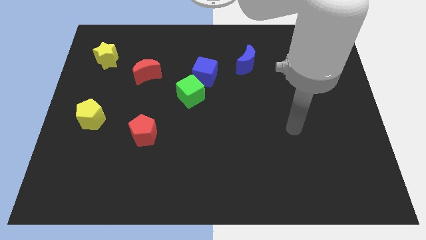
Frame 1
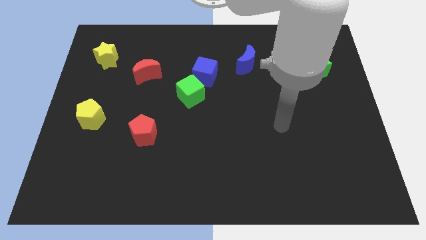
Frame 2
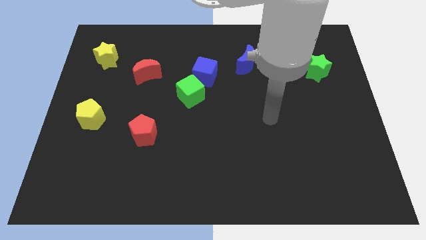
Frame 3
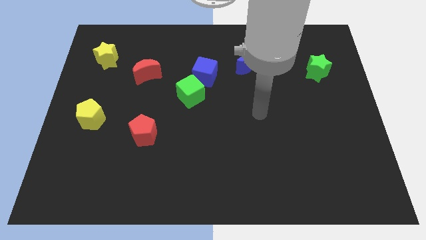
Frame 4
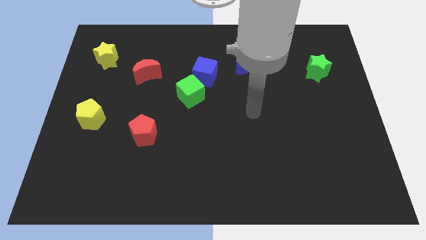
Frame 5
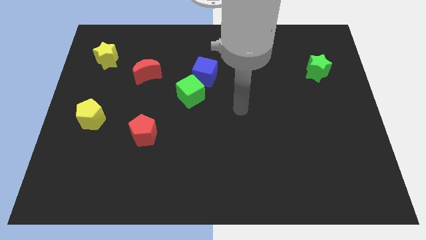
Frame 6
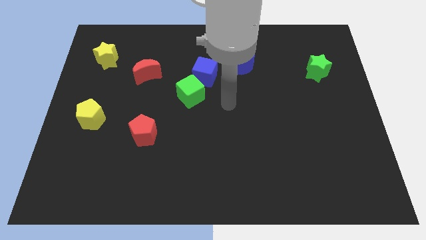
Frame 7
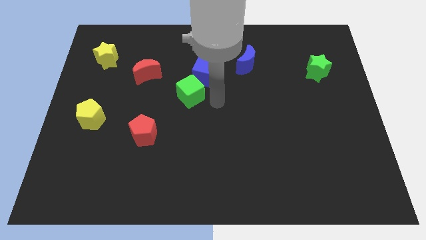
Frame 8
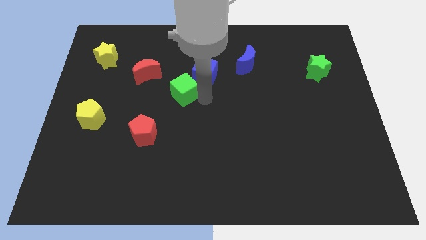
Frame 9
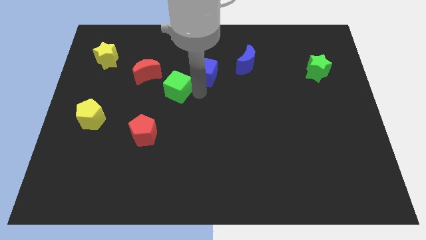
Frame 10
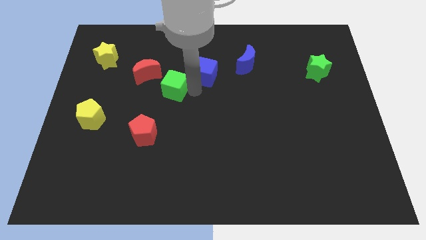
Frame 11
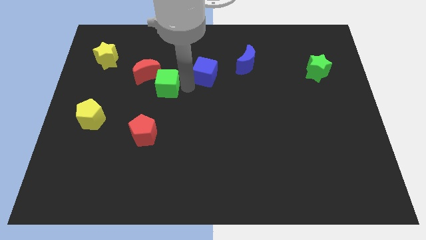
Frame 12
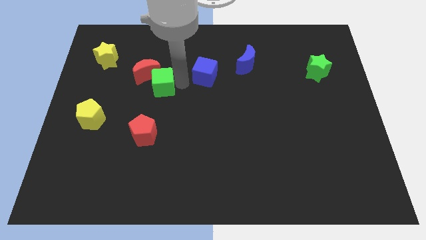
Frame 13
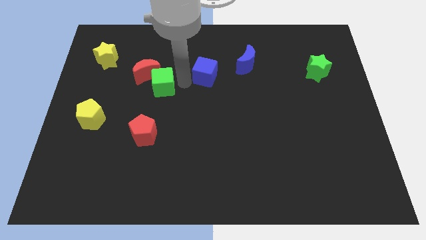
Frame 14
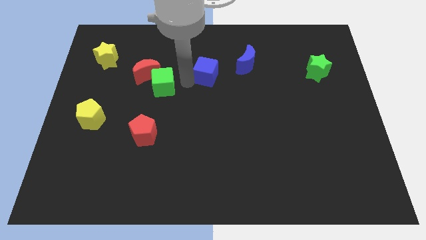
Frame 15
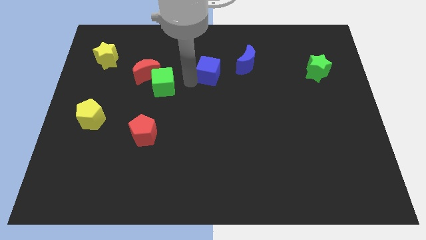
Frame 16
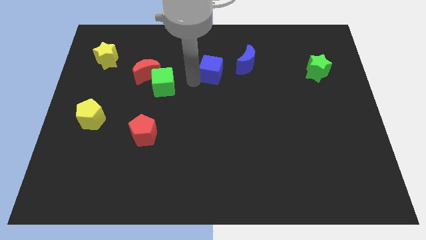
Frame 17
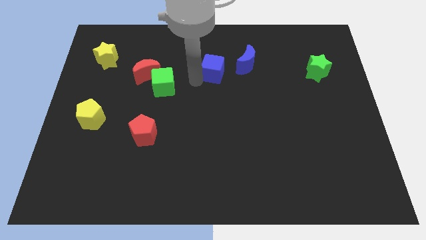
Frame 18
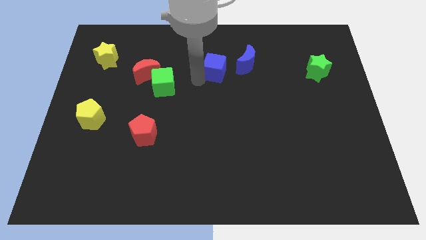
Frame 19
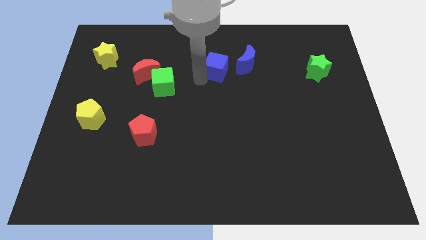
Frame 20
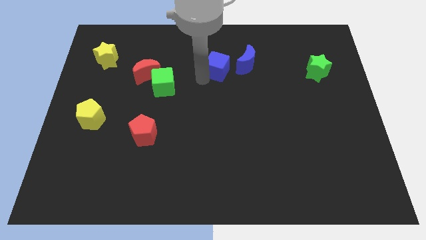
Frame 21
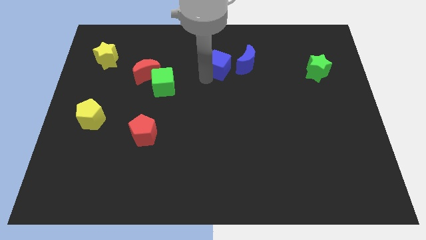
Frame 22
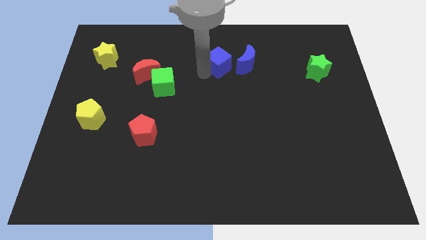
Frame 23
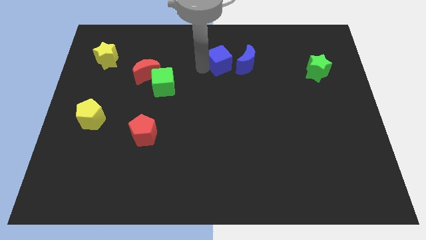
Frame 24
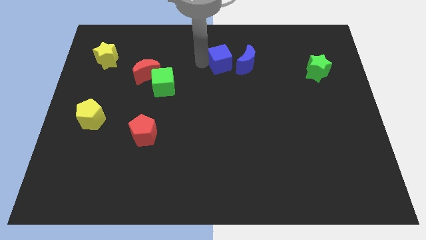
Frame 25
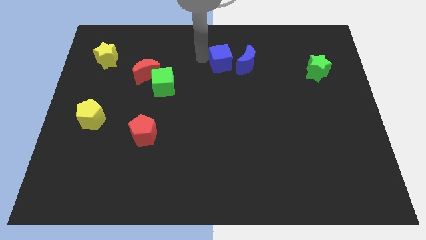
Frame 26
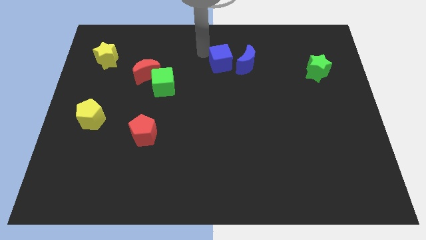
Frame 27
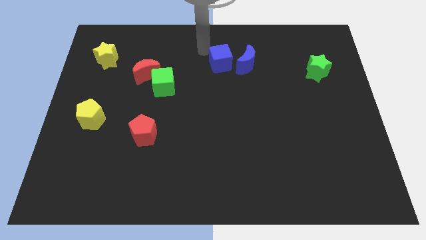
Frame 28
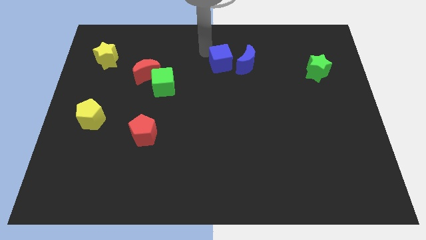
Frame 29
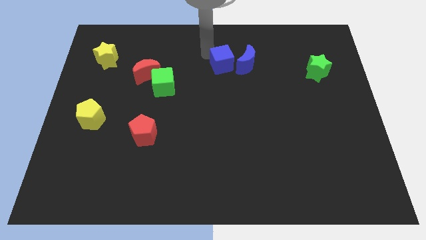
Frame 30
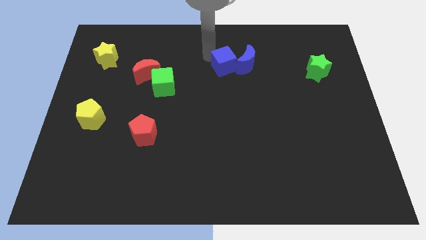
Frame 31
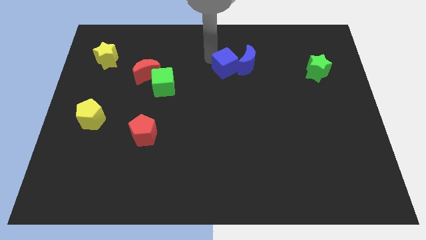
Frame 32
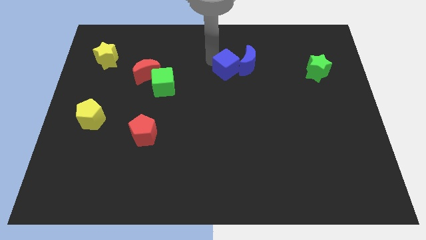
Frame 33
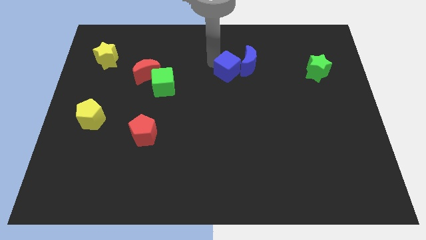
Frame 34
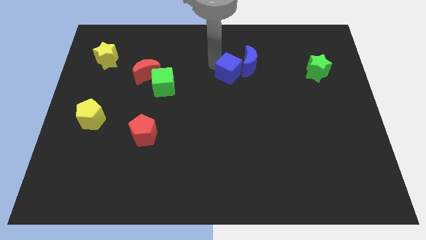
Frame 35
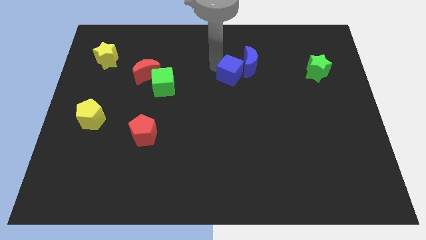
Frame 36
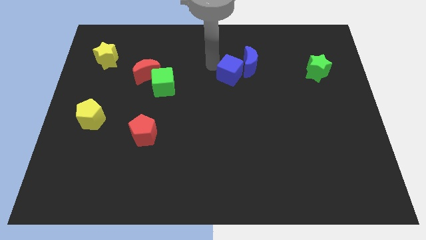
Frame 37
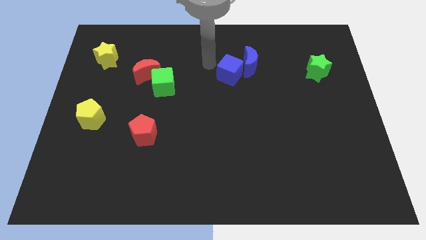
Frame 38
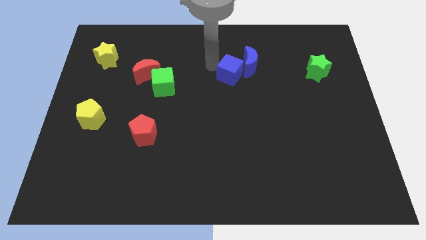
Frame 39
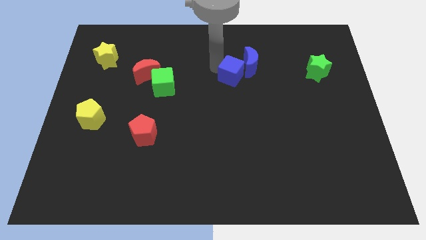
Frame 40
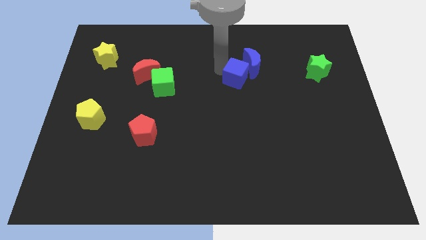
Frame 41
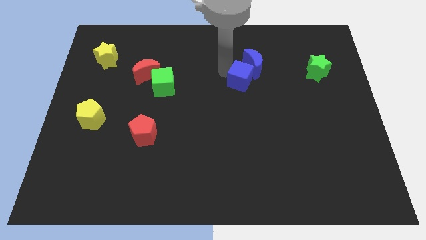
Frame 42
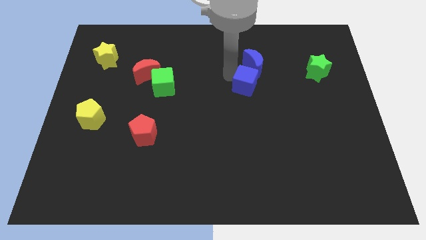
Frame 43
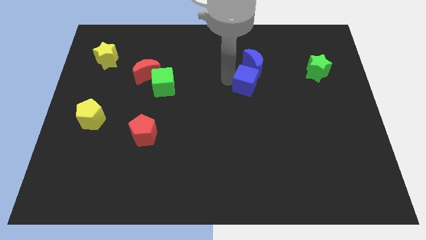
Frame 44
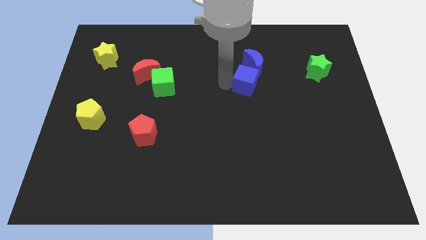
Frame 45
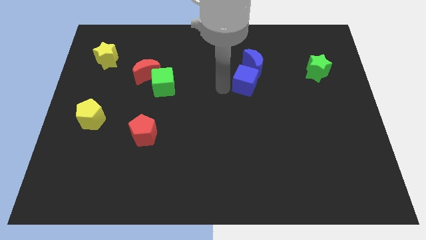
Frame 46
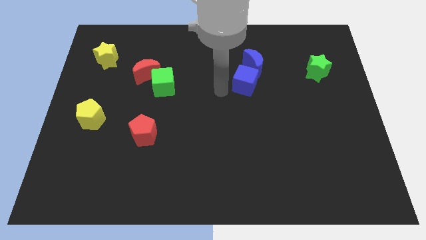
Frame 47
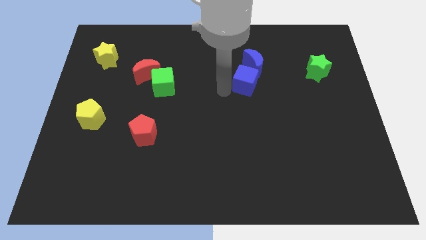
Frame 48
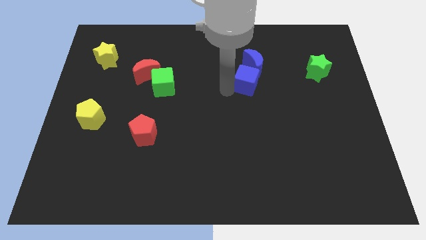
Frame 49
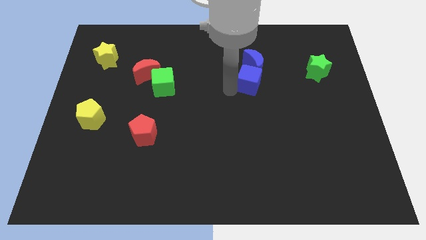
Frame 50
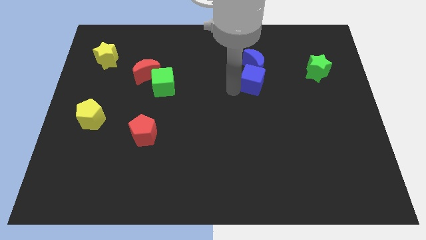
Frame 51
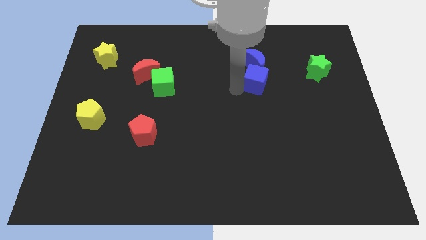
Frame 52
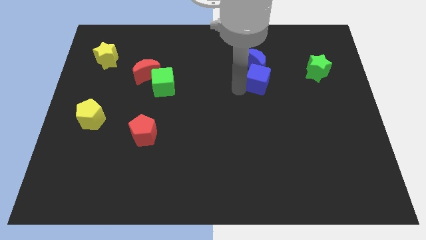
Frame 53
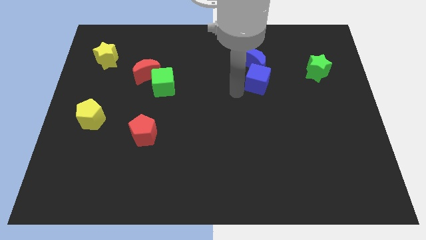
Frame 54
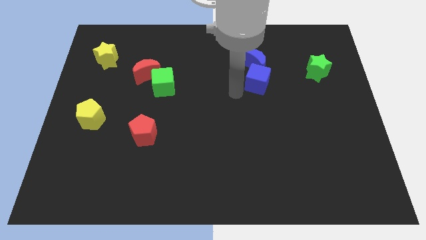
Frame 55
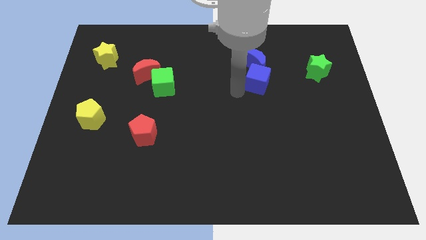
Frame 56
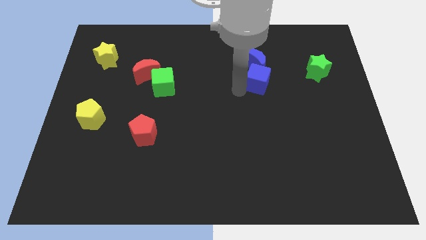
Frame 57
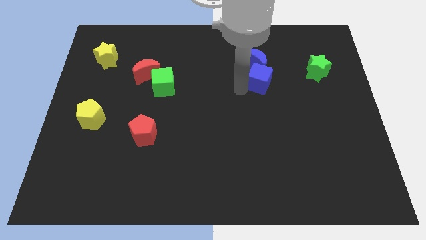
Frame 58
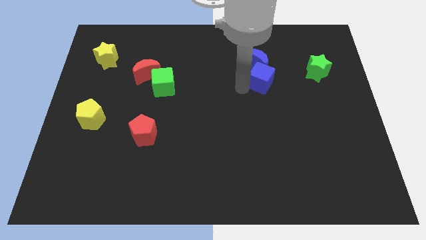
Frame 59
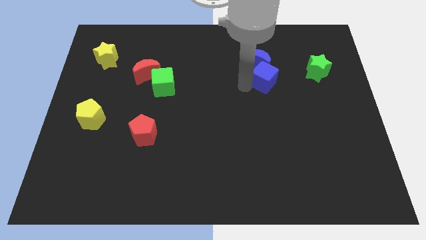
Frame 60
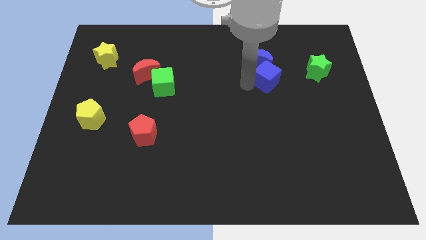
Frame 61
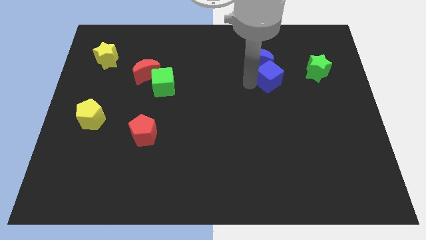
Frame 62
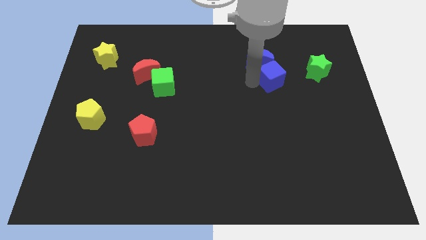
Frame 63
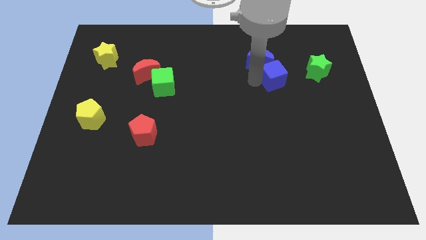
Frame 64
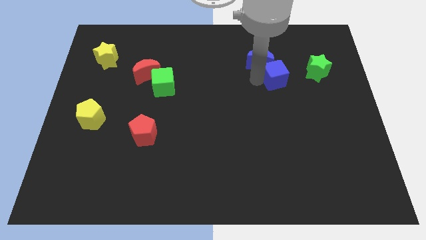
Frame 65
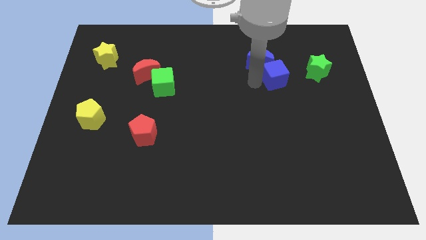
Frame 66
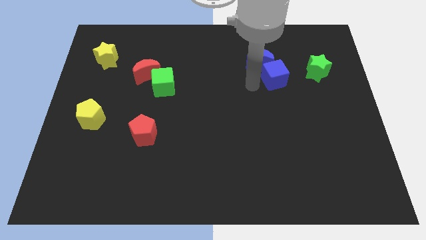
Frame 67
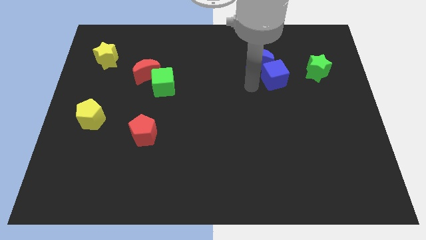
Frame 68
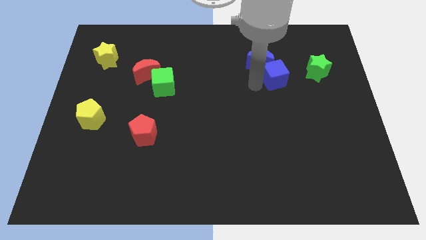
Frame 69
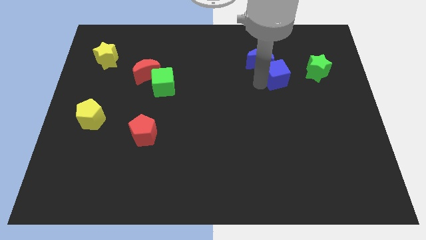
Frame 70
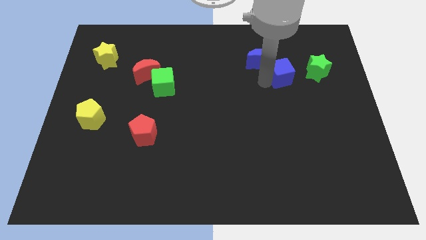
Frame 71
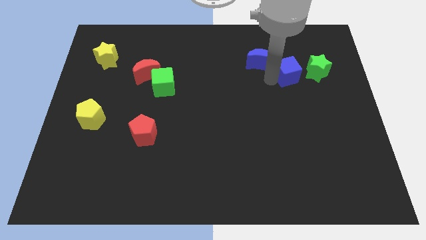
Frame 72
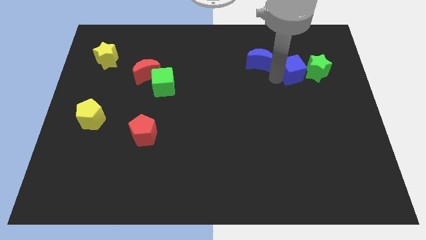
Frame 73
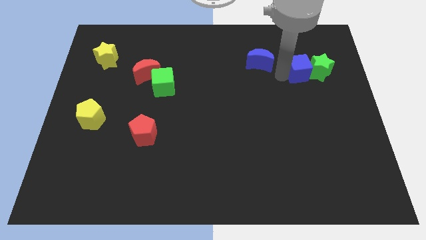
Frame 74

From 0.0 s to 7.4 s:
move the blue cube towards the green star

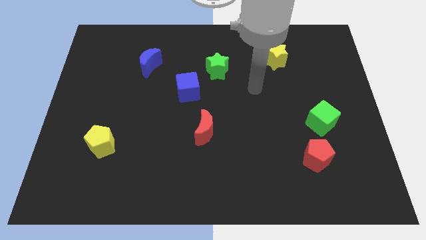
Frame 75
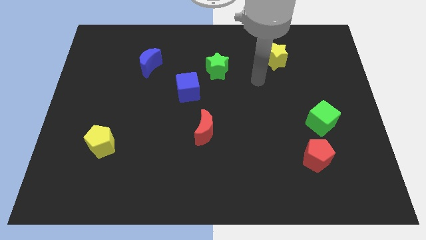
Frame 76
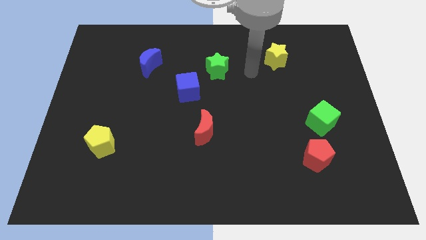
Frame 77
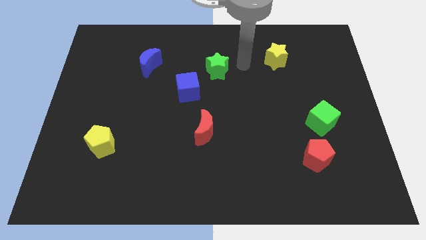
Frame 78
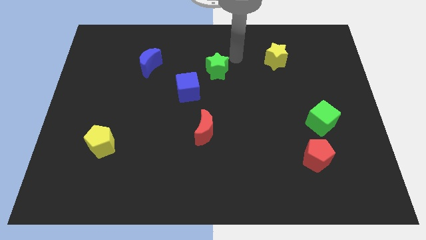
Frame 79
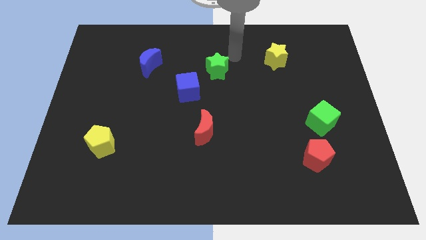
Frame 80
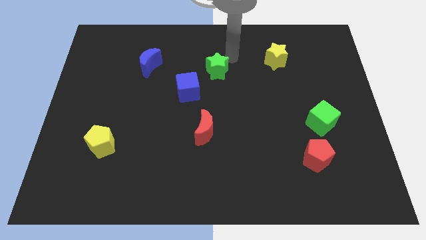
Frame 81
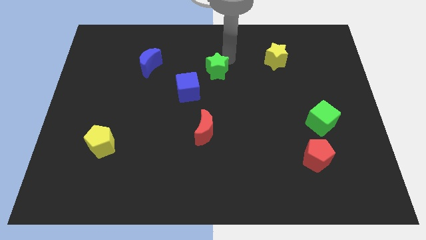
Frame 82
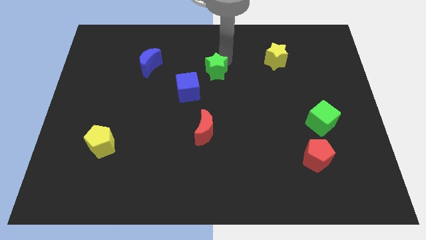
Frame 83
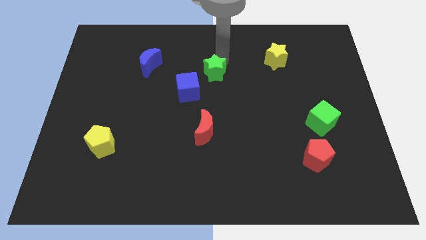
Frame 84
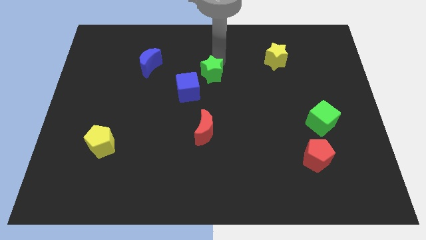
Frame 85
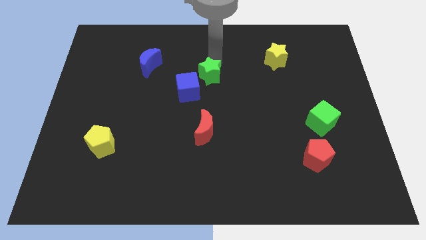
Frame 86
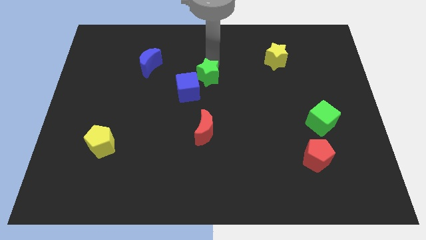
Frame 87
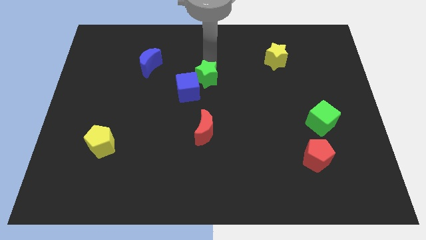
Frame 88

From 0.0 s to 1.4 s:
put the green star to the blue cube
